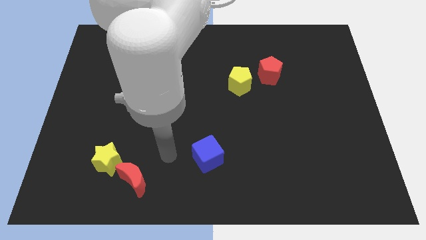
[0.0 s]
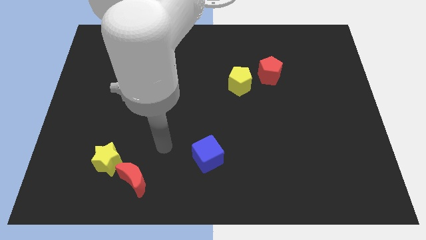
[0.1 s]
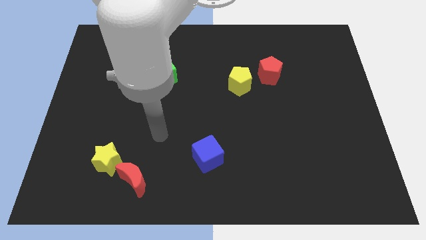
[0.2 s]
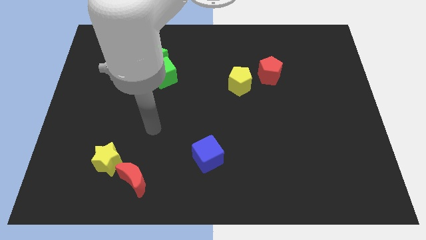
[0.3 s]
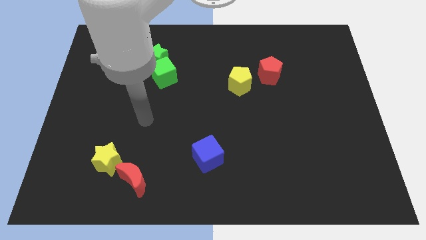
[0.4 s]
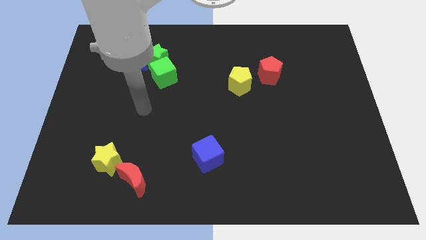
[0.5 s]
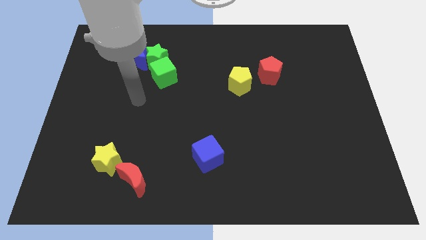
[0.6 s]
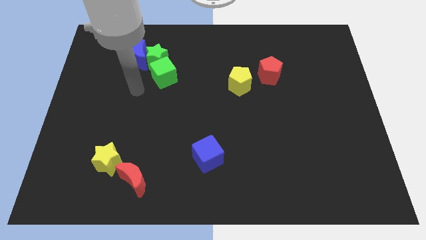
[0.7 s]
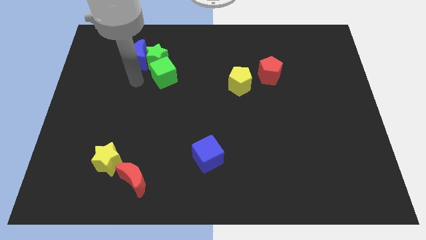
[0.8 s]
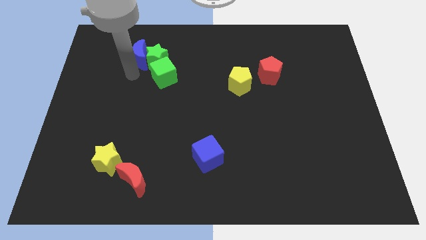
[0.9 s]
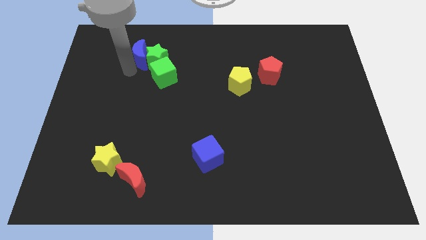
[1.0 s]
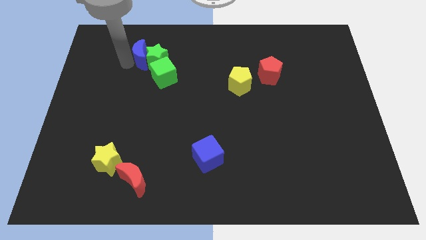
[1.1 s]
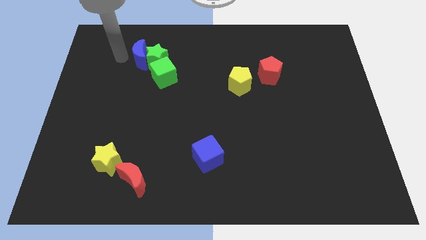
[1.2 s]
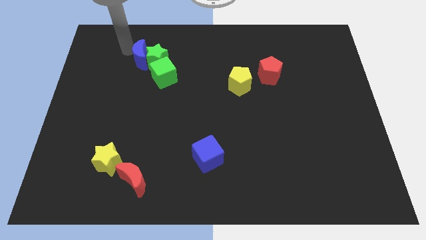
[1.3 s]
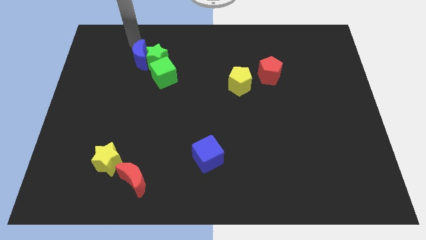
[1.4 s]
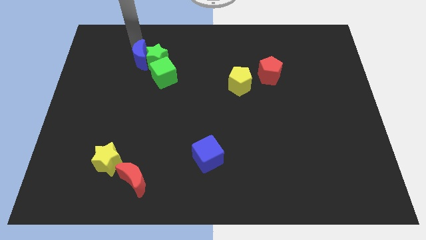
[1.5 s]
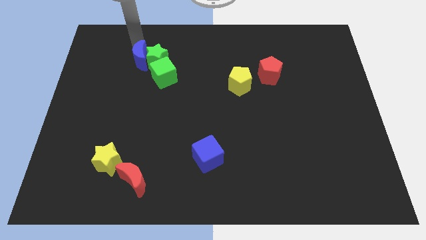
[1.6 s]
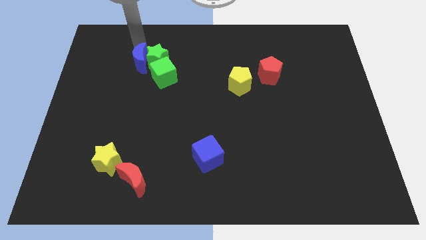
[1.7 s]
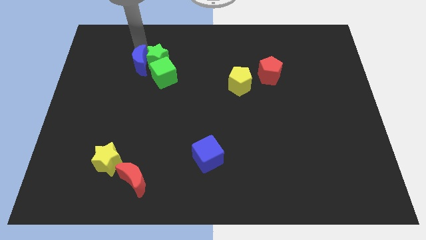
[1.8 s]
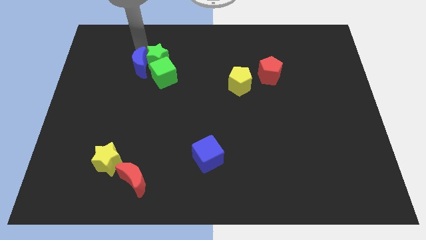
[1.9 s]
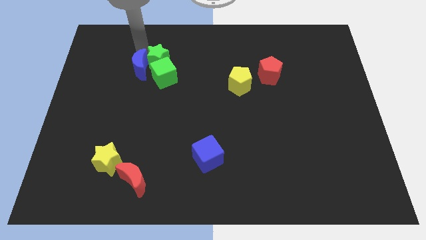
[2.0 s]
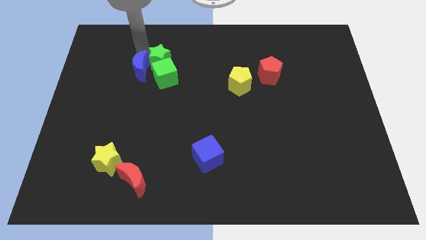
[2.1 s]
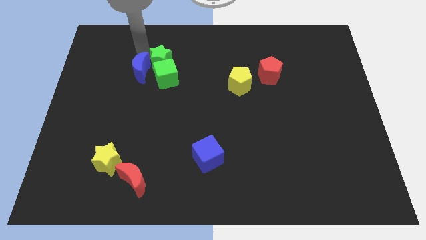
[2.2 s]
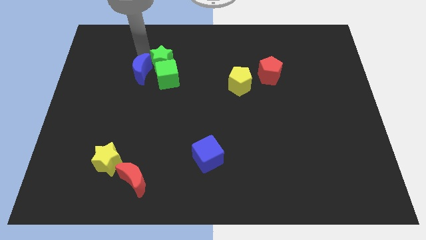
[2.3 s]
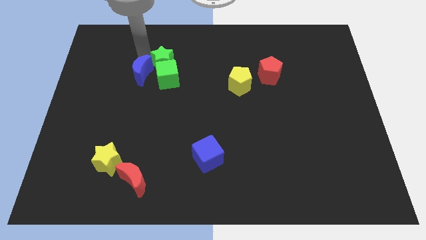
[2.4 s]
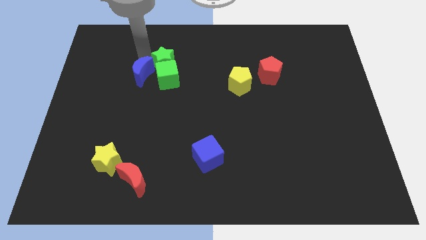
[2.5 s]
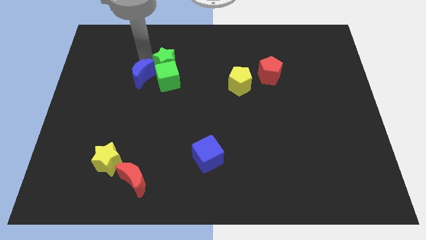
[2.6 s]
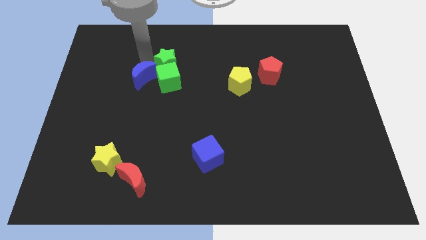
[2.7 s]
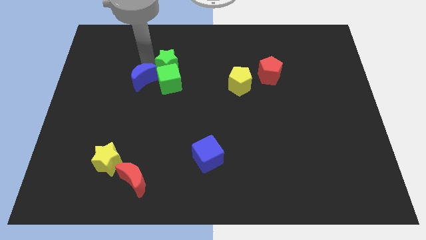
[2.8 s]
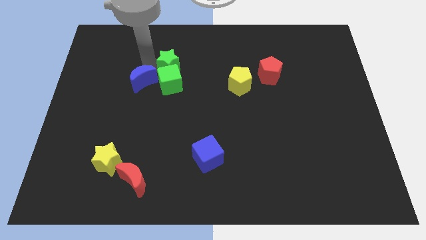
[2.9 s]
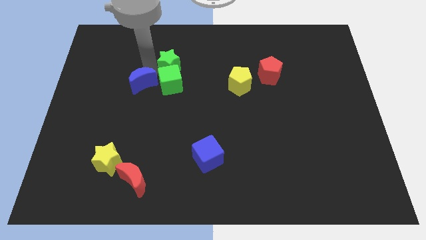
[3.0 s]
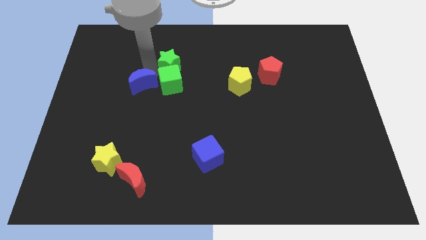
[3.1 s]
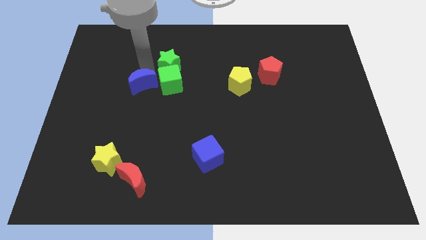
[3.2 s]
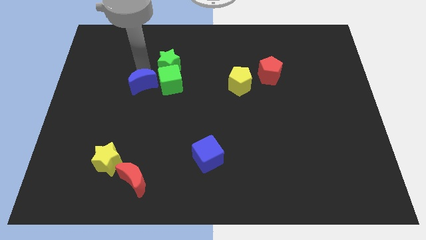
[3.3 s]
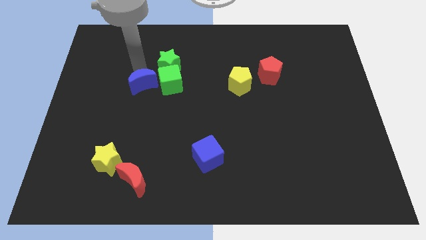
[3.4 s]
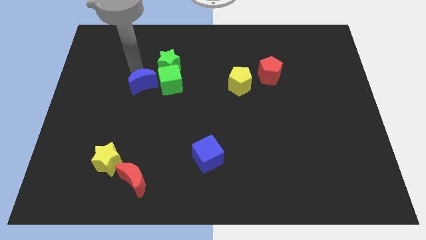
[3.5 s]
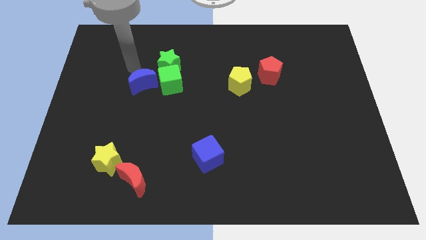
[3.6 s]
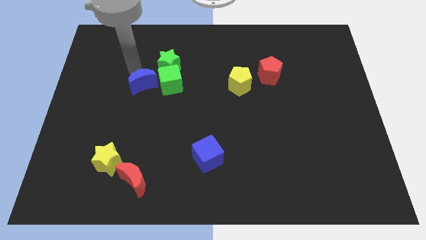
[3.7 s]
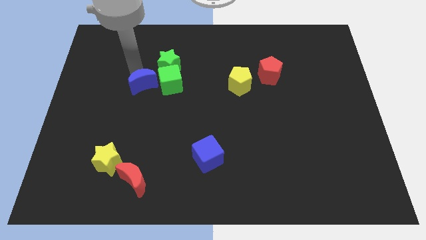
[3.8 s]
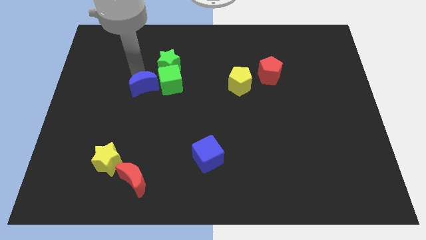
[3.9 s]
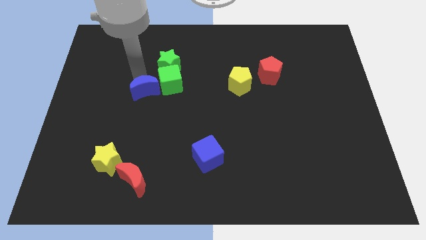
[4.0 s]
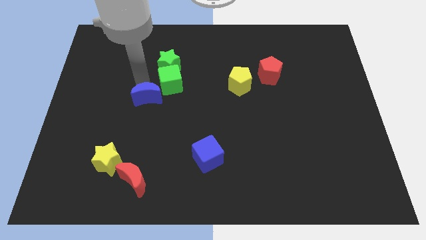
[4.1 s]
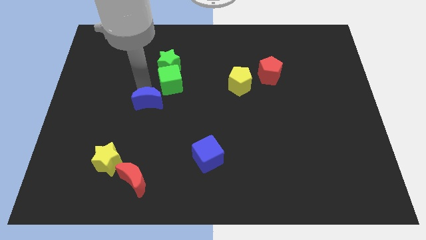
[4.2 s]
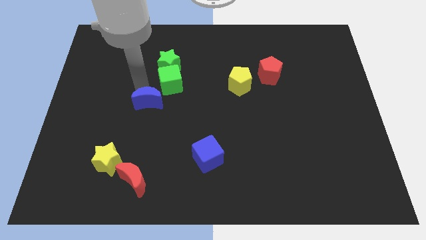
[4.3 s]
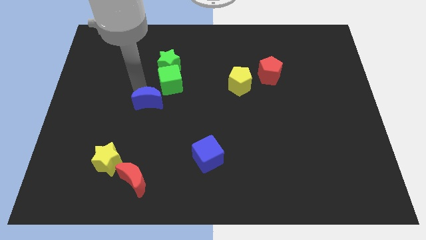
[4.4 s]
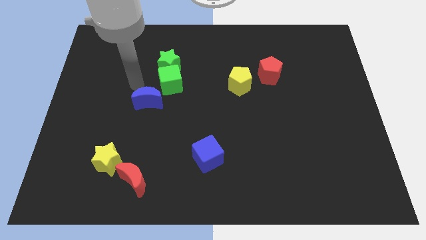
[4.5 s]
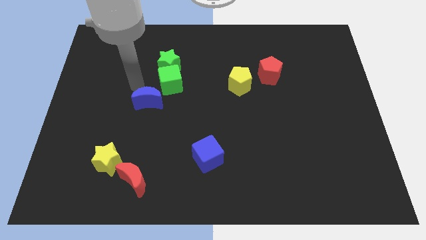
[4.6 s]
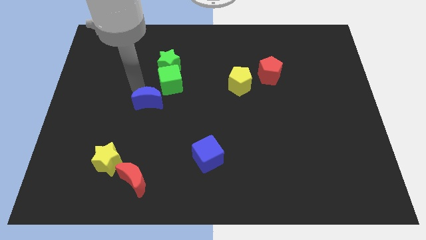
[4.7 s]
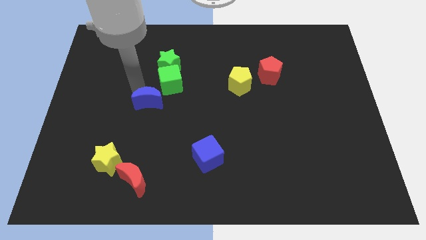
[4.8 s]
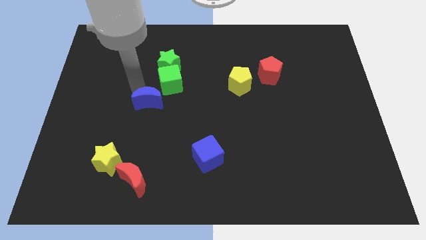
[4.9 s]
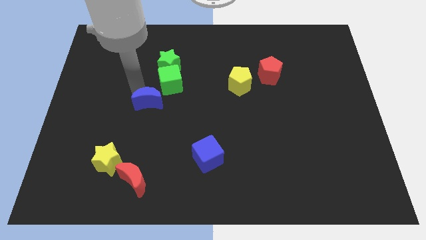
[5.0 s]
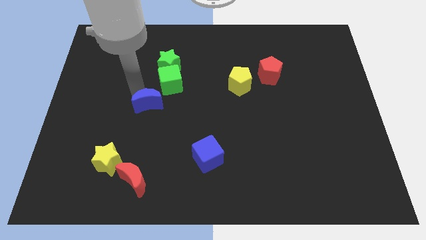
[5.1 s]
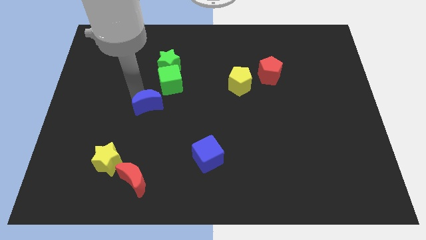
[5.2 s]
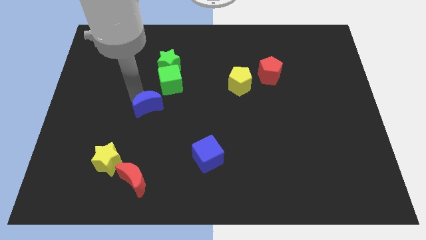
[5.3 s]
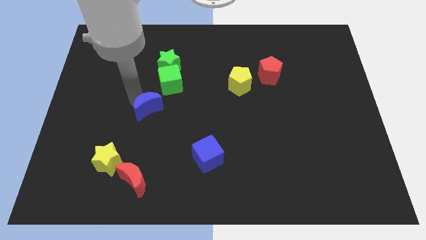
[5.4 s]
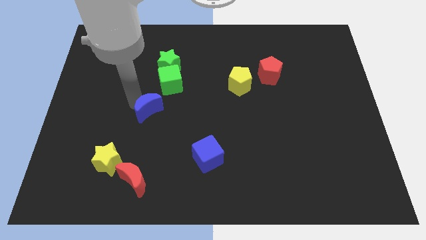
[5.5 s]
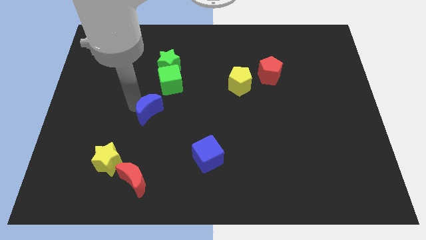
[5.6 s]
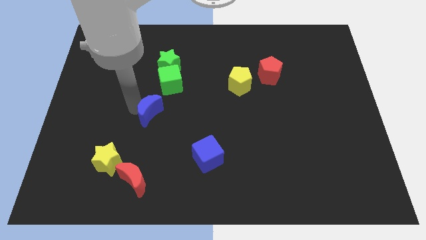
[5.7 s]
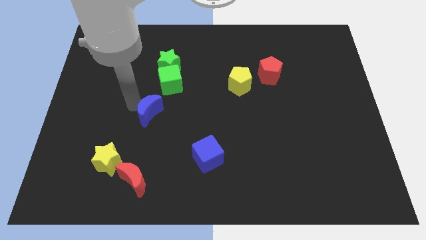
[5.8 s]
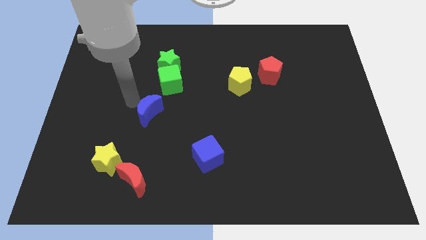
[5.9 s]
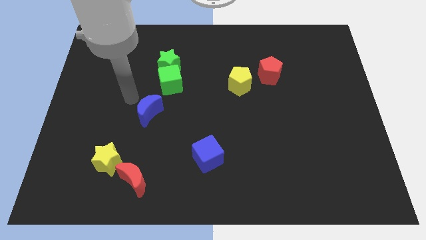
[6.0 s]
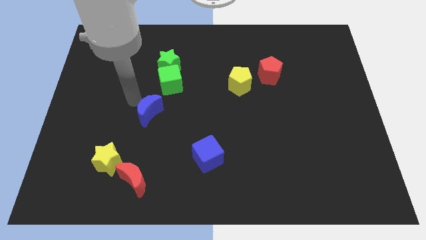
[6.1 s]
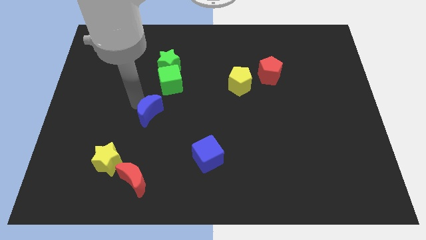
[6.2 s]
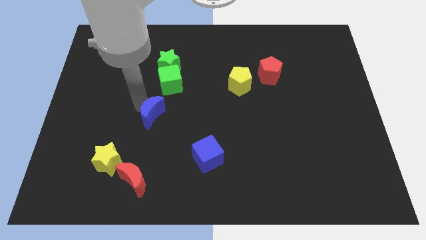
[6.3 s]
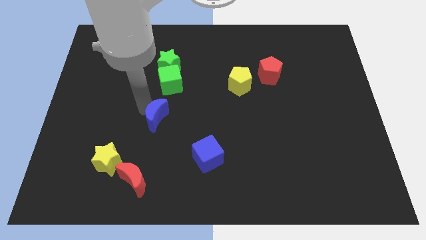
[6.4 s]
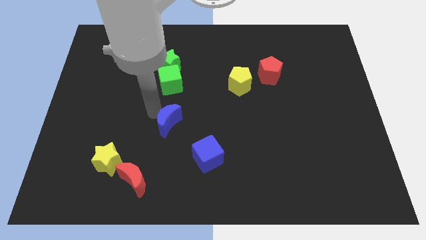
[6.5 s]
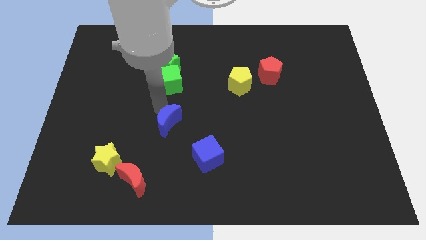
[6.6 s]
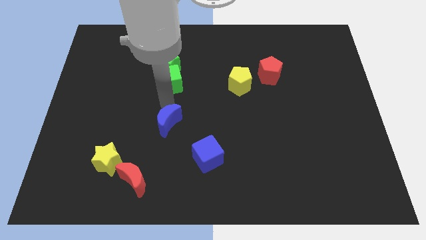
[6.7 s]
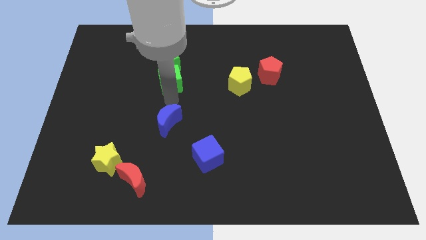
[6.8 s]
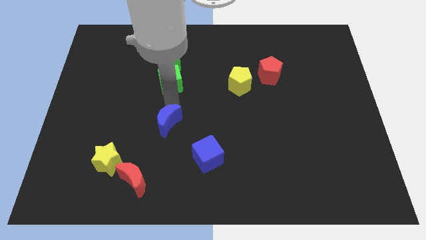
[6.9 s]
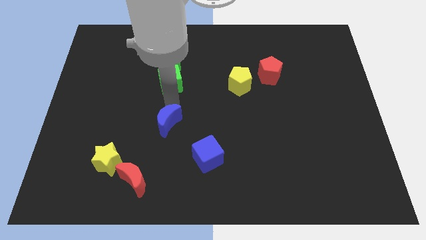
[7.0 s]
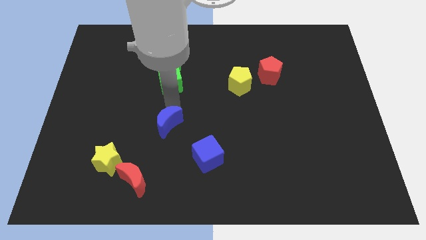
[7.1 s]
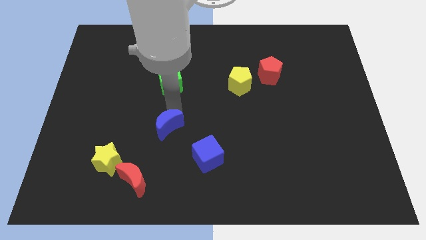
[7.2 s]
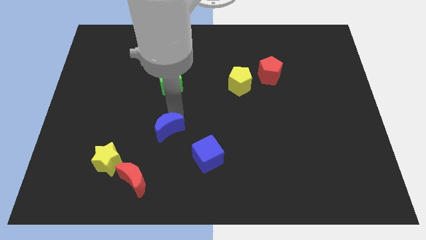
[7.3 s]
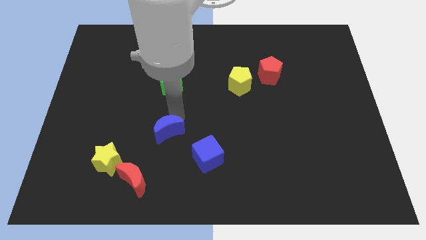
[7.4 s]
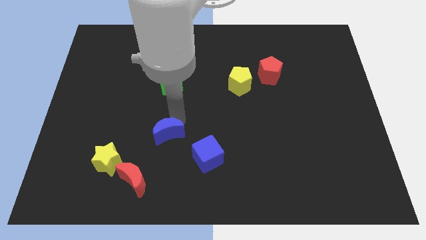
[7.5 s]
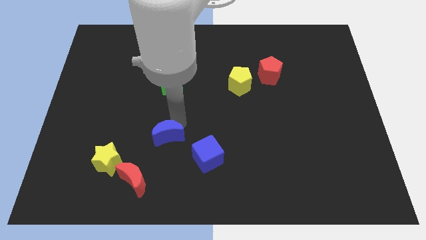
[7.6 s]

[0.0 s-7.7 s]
move the blue moon to the top right of the red moon
